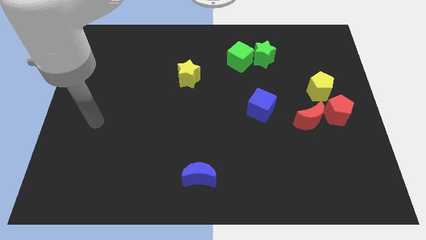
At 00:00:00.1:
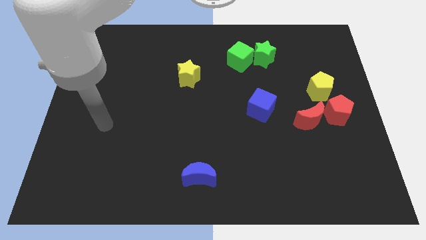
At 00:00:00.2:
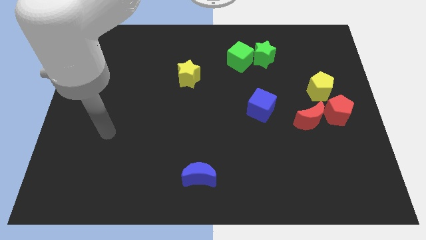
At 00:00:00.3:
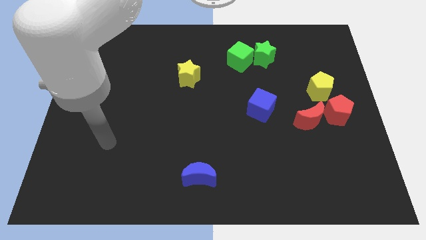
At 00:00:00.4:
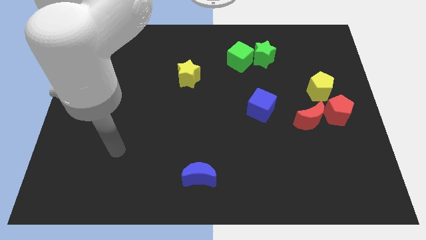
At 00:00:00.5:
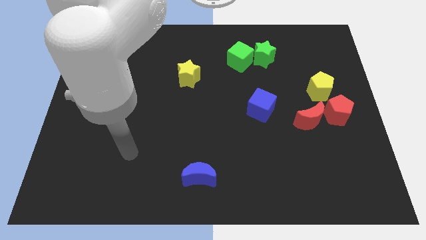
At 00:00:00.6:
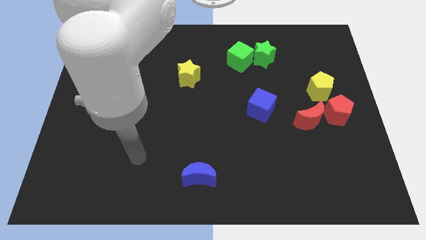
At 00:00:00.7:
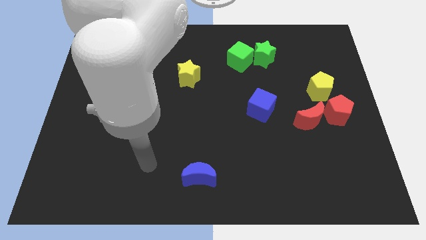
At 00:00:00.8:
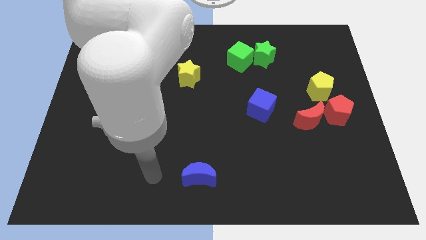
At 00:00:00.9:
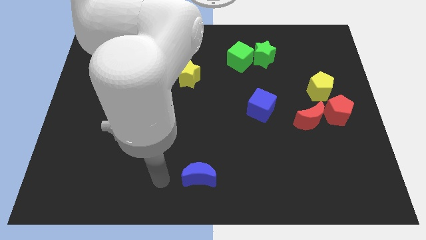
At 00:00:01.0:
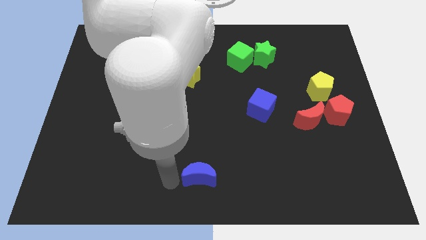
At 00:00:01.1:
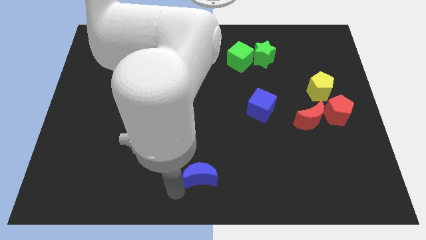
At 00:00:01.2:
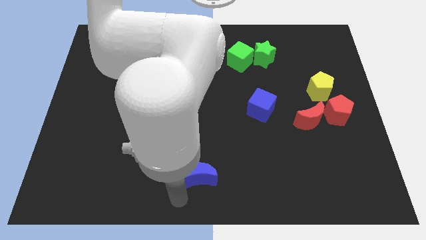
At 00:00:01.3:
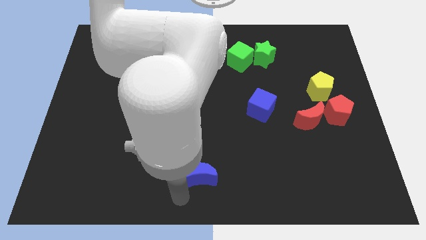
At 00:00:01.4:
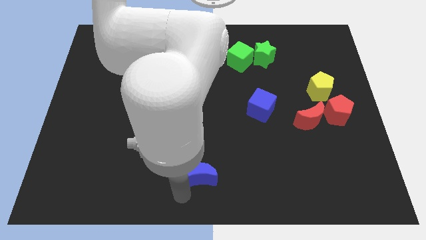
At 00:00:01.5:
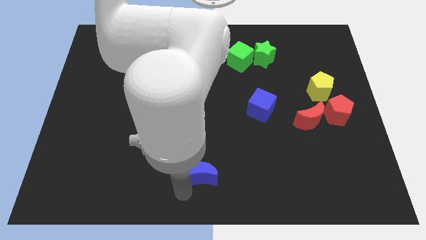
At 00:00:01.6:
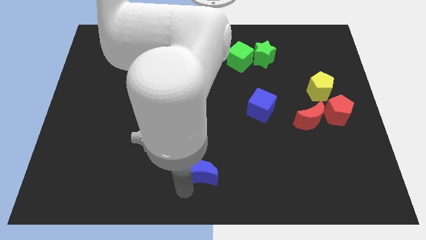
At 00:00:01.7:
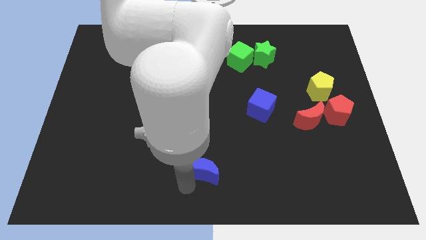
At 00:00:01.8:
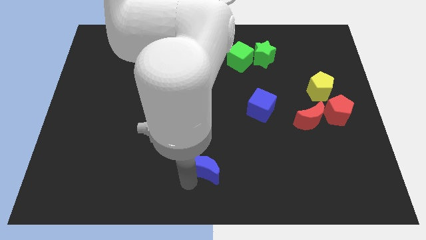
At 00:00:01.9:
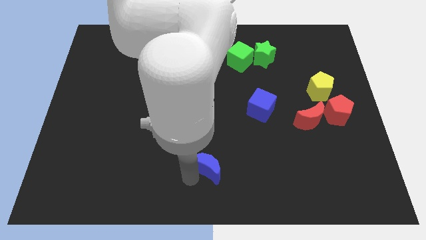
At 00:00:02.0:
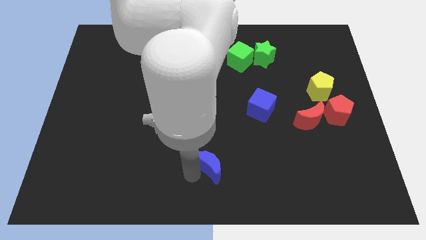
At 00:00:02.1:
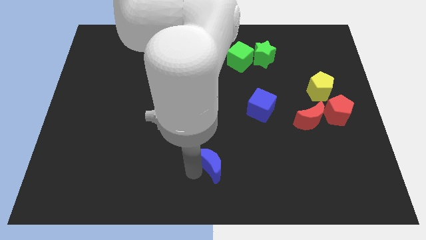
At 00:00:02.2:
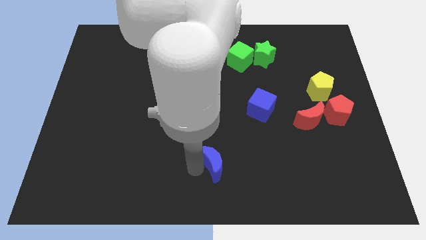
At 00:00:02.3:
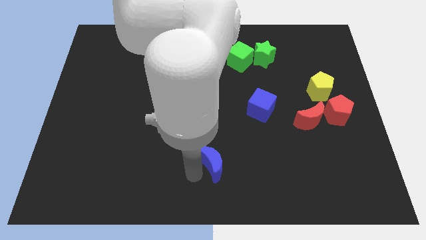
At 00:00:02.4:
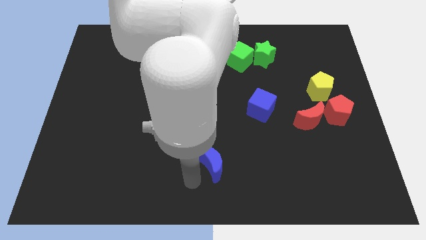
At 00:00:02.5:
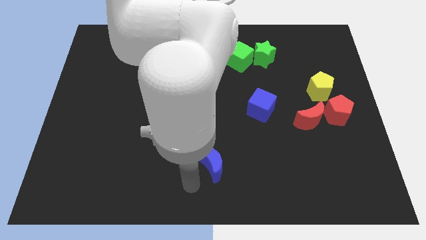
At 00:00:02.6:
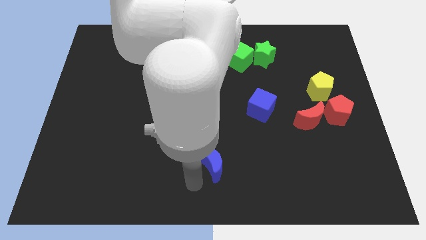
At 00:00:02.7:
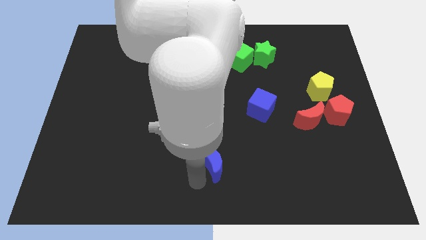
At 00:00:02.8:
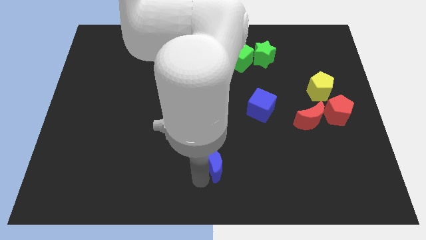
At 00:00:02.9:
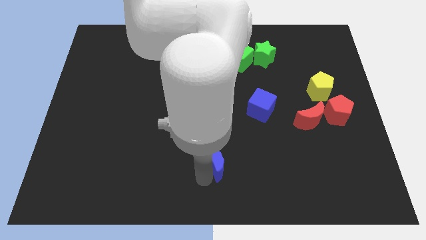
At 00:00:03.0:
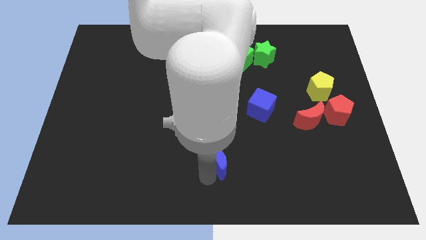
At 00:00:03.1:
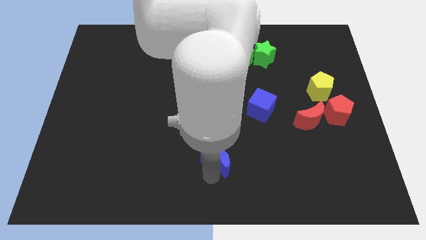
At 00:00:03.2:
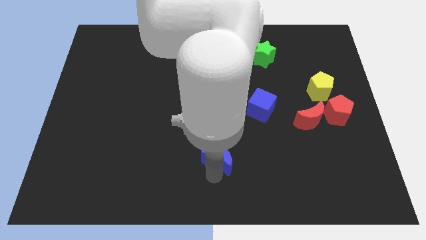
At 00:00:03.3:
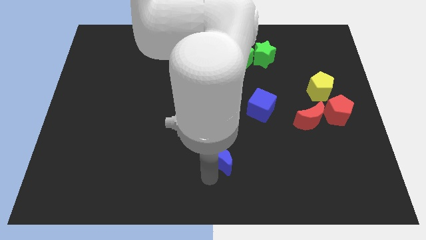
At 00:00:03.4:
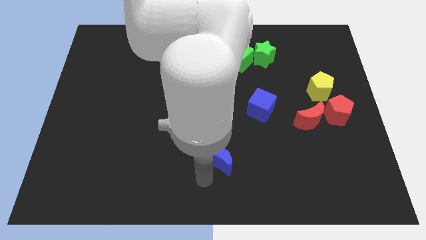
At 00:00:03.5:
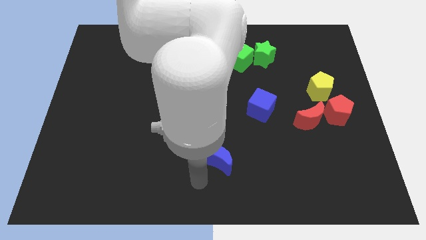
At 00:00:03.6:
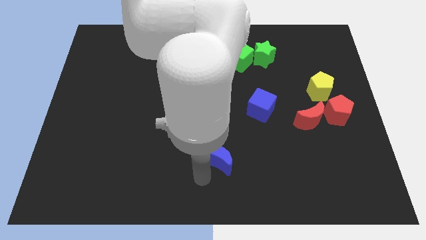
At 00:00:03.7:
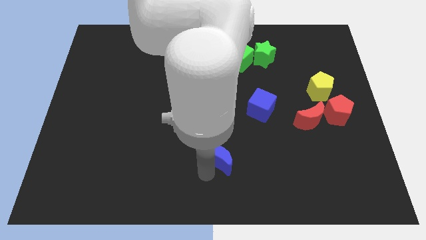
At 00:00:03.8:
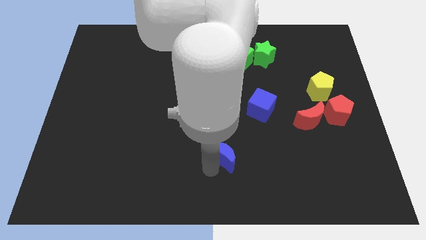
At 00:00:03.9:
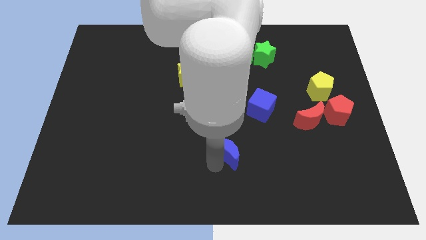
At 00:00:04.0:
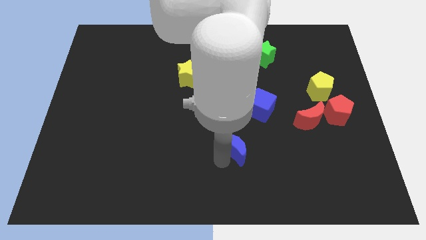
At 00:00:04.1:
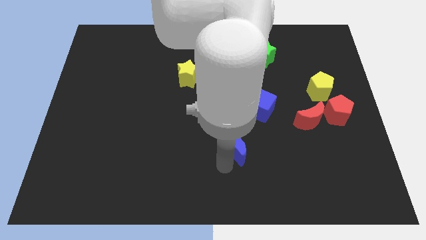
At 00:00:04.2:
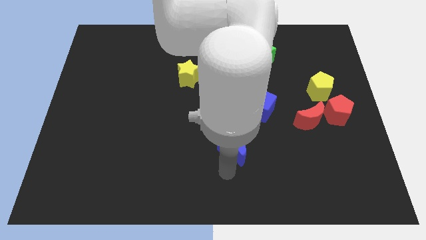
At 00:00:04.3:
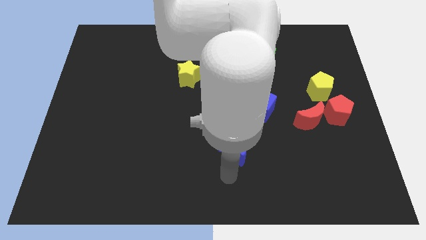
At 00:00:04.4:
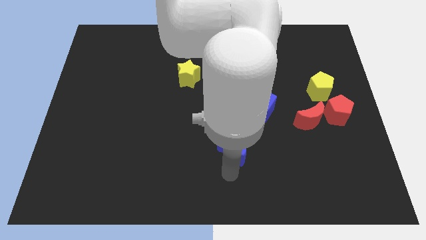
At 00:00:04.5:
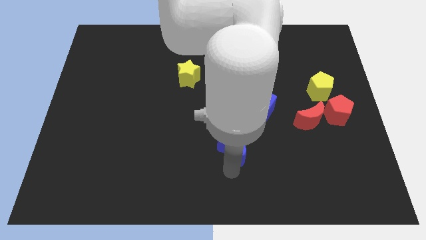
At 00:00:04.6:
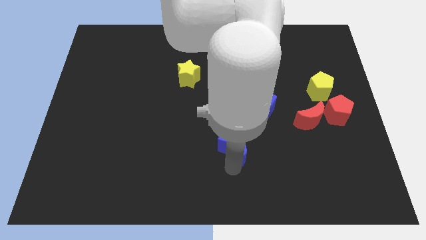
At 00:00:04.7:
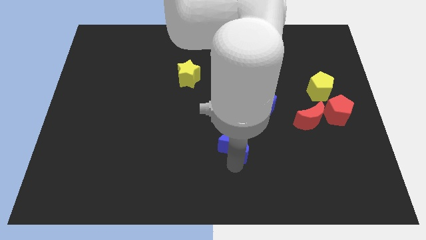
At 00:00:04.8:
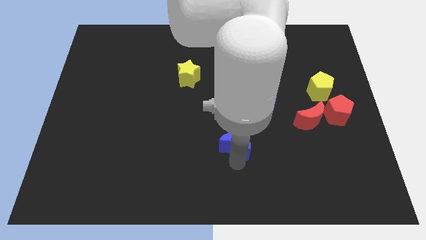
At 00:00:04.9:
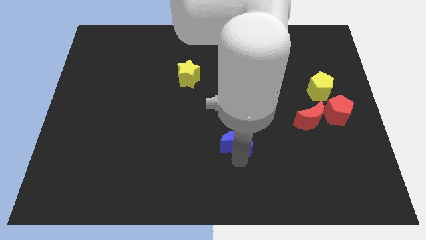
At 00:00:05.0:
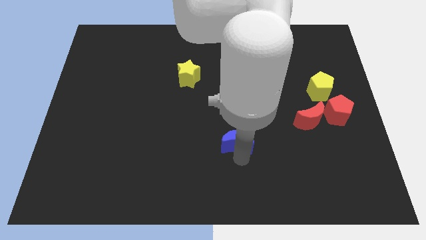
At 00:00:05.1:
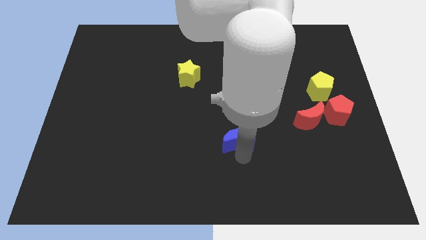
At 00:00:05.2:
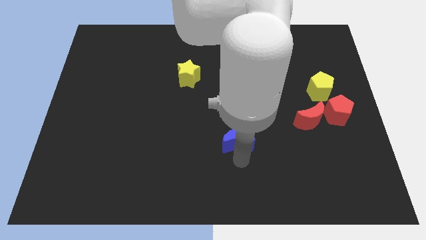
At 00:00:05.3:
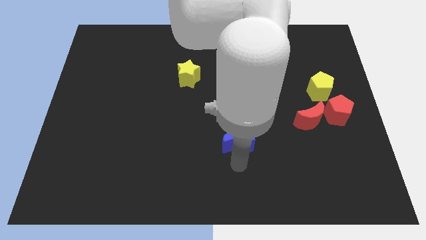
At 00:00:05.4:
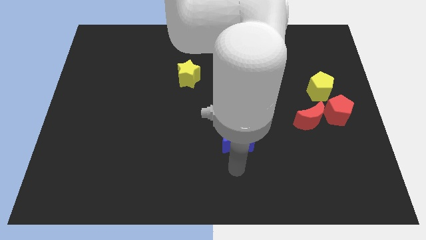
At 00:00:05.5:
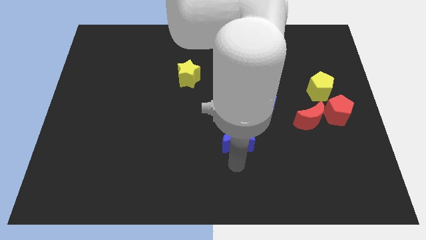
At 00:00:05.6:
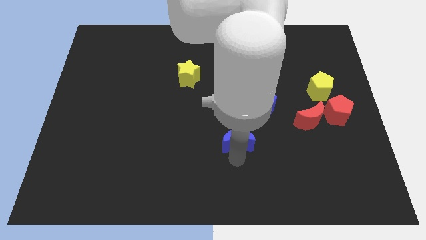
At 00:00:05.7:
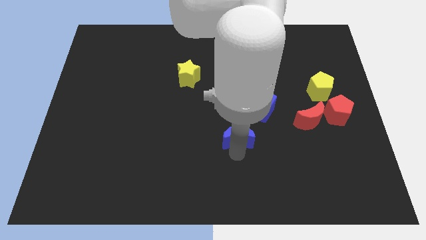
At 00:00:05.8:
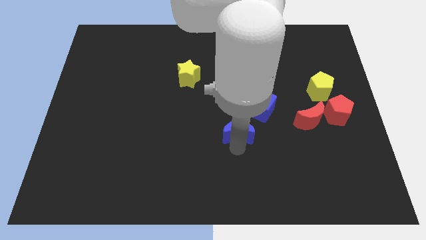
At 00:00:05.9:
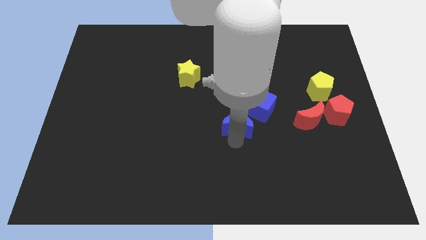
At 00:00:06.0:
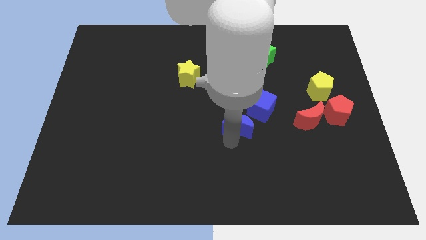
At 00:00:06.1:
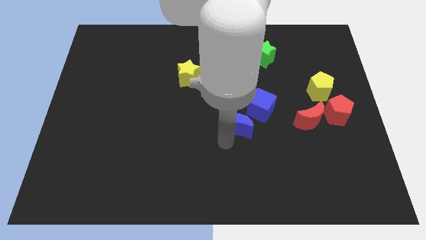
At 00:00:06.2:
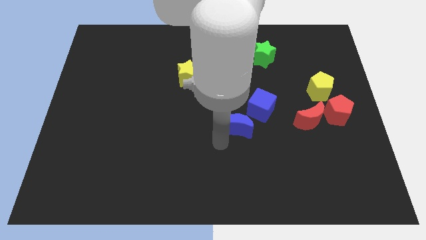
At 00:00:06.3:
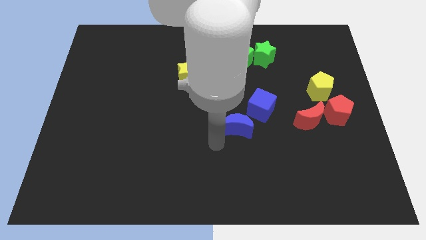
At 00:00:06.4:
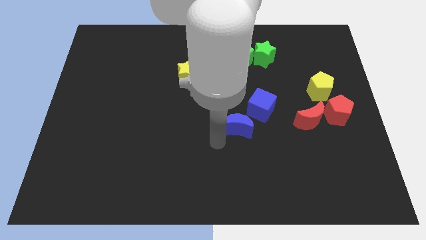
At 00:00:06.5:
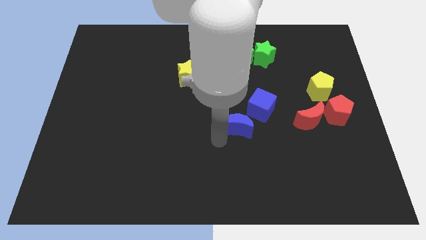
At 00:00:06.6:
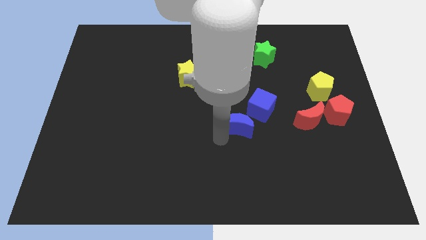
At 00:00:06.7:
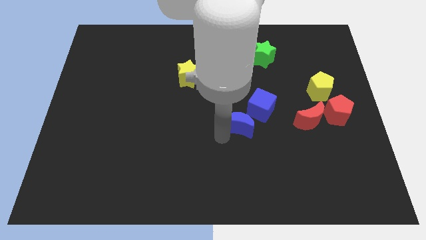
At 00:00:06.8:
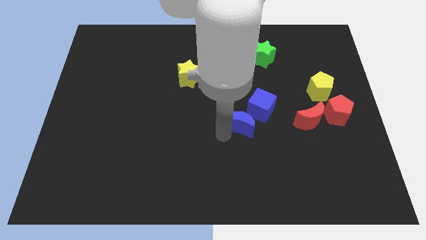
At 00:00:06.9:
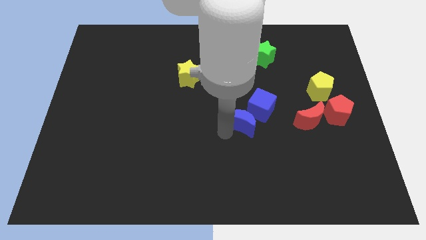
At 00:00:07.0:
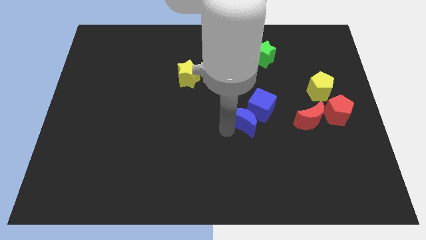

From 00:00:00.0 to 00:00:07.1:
push the blue moon towards the blue cube
